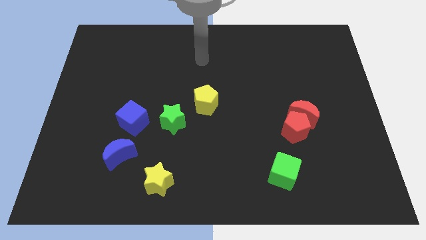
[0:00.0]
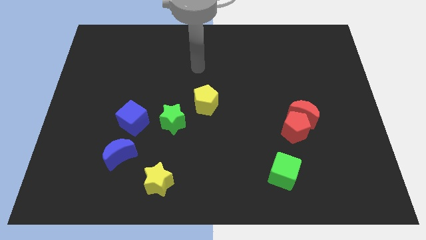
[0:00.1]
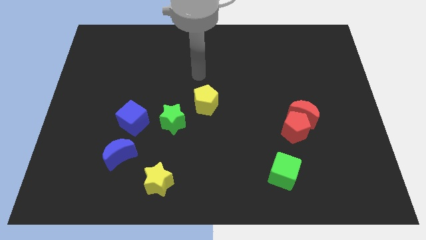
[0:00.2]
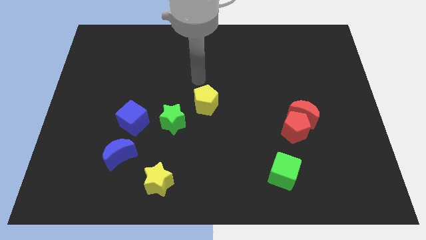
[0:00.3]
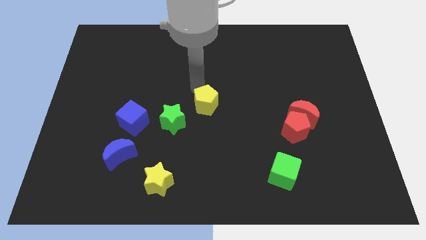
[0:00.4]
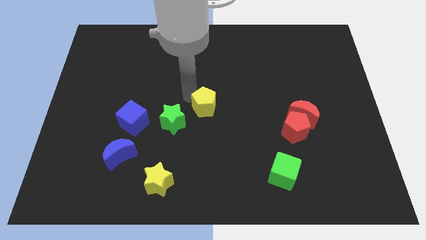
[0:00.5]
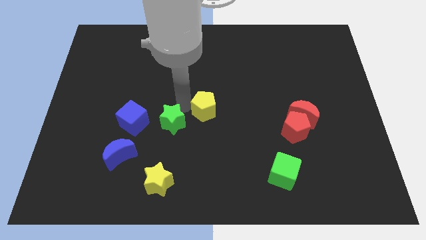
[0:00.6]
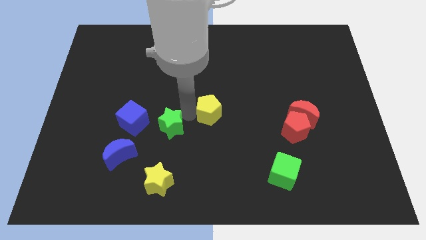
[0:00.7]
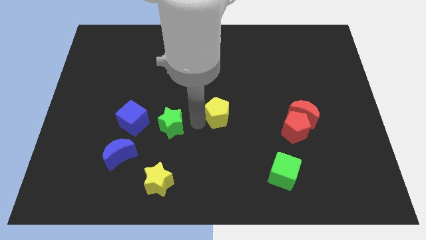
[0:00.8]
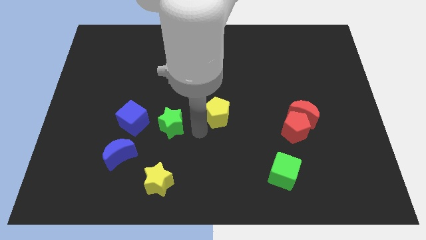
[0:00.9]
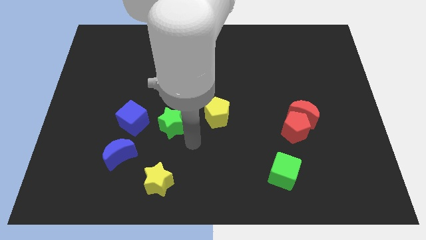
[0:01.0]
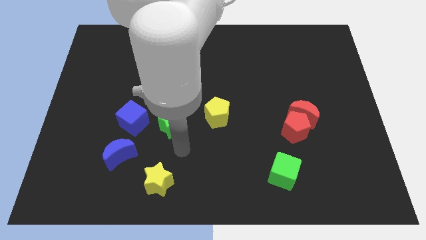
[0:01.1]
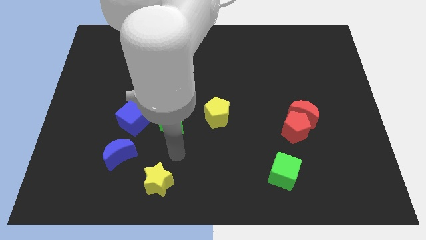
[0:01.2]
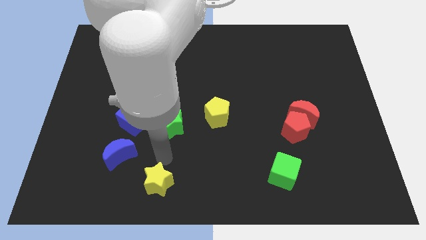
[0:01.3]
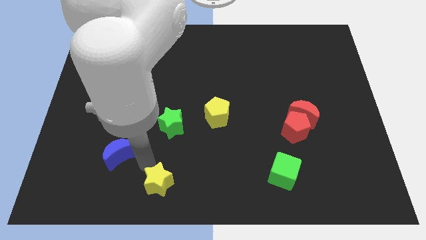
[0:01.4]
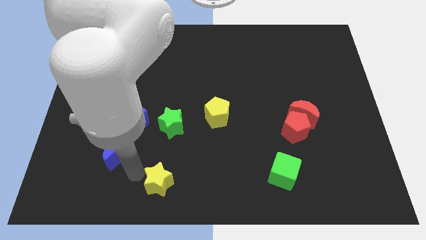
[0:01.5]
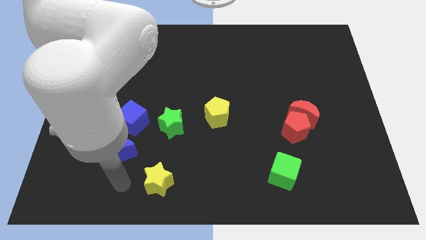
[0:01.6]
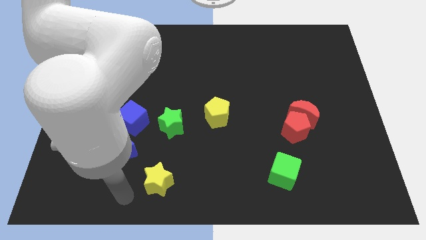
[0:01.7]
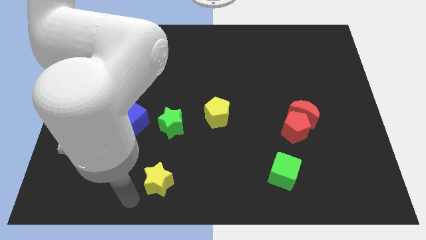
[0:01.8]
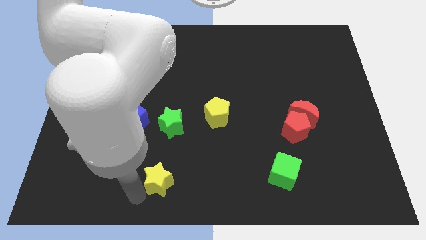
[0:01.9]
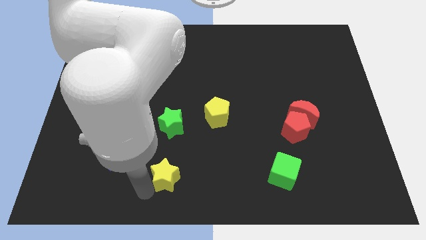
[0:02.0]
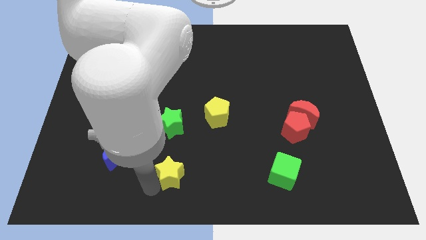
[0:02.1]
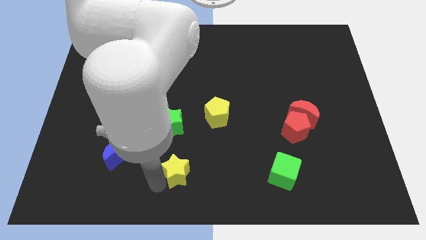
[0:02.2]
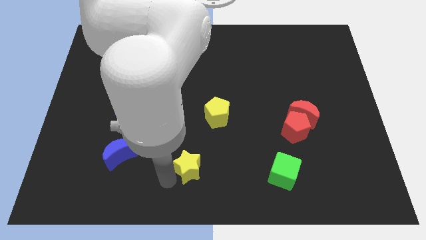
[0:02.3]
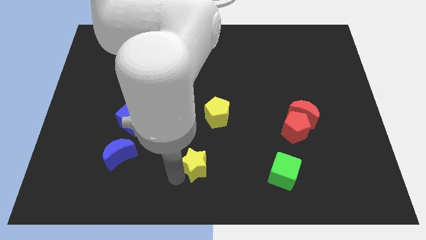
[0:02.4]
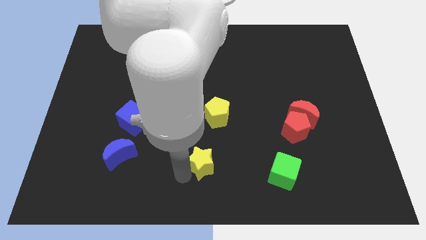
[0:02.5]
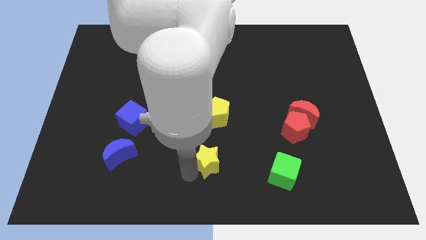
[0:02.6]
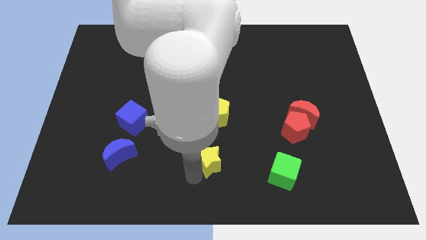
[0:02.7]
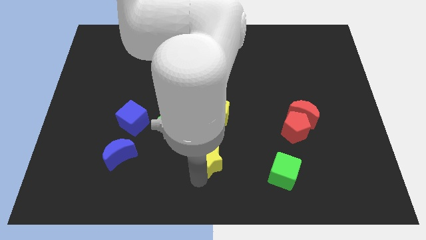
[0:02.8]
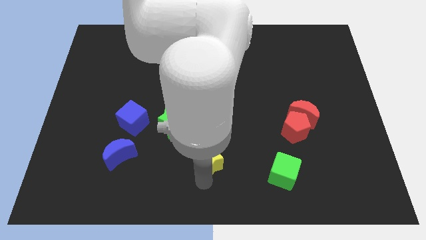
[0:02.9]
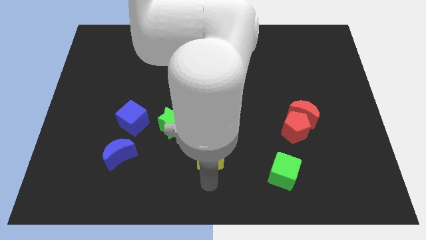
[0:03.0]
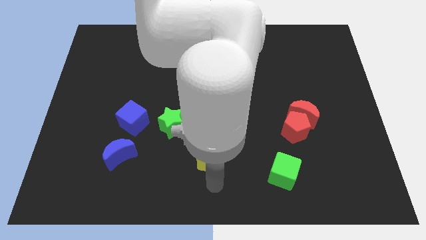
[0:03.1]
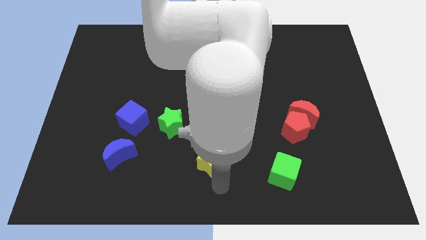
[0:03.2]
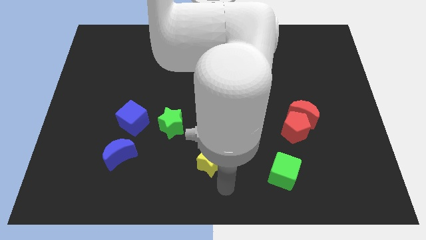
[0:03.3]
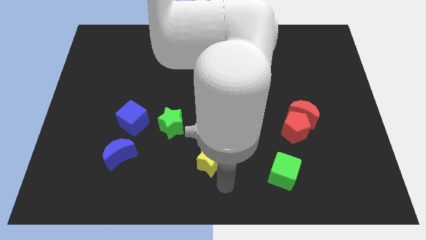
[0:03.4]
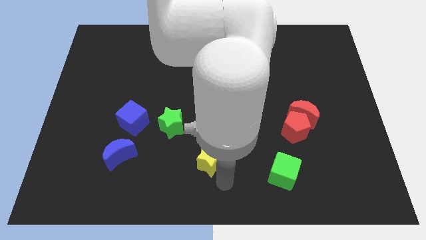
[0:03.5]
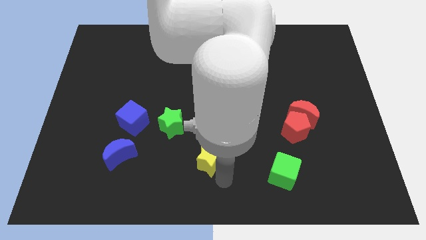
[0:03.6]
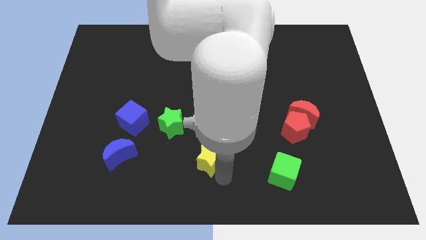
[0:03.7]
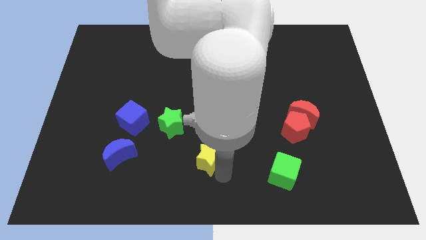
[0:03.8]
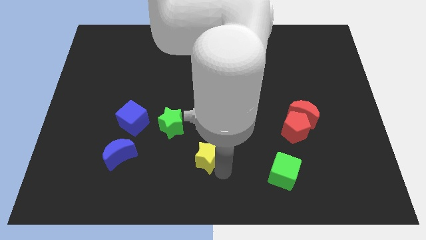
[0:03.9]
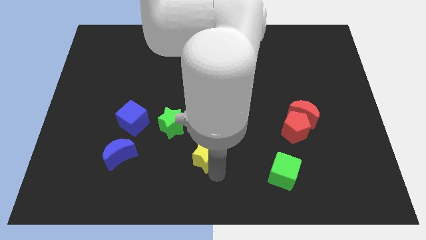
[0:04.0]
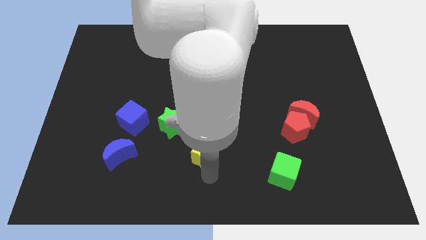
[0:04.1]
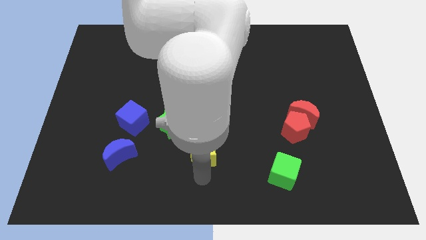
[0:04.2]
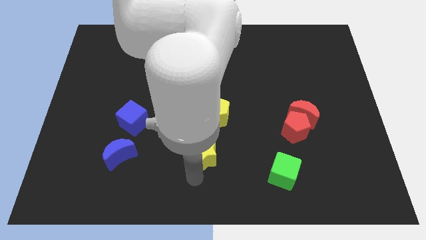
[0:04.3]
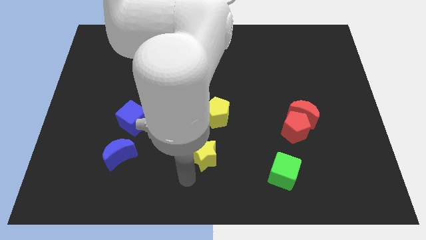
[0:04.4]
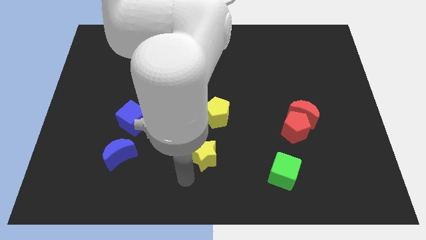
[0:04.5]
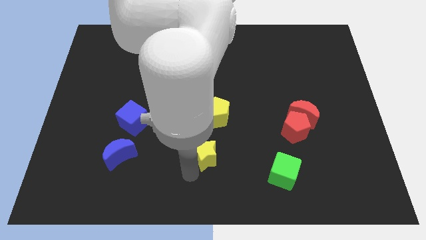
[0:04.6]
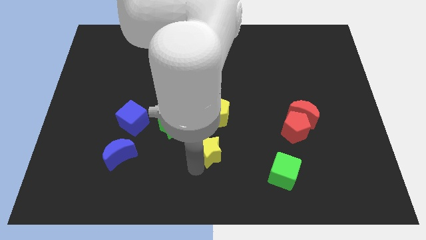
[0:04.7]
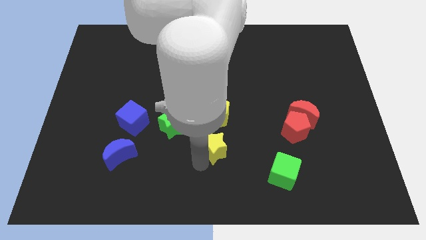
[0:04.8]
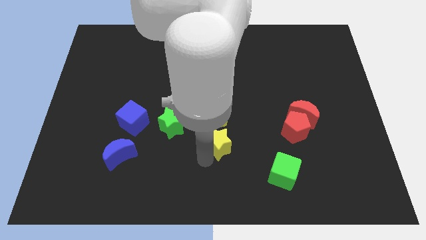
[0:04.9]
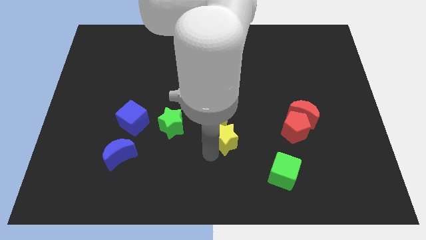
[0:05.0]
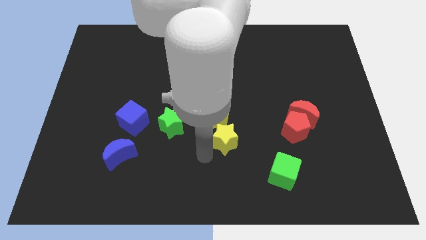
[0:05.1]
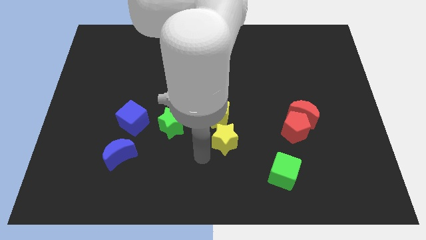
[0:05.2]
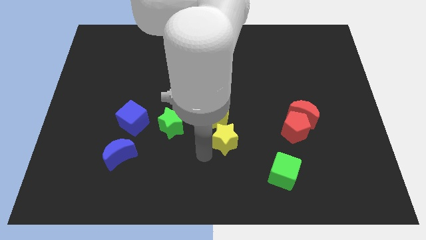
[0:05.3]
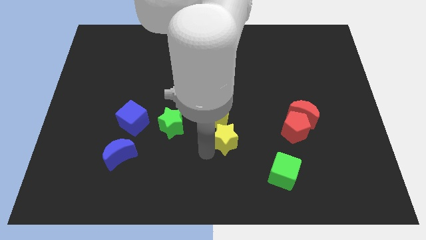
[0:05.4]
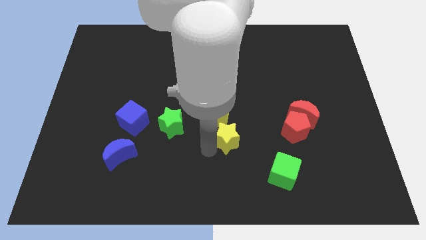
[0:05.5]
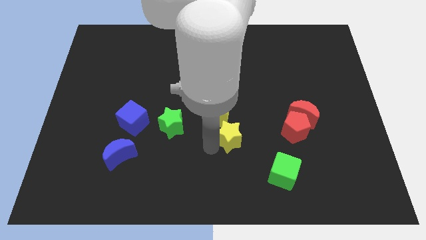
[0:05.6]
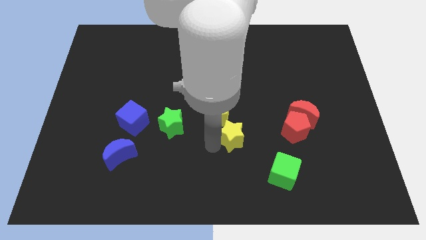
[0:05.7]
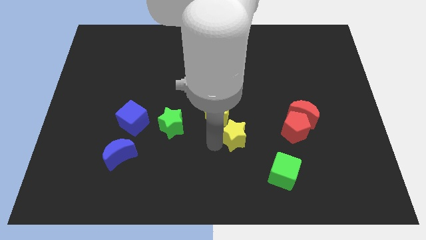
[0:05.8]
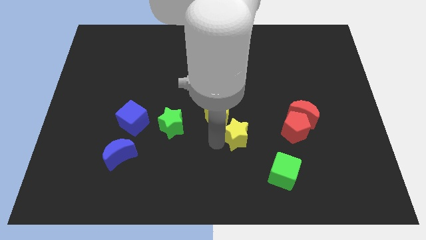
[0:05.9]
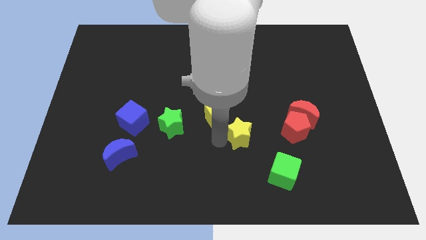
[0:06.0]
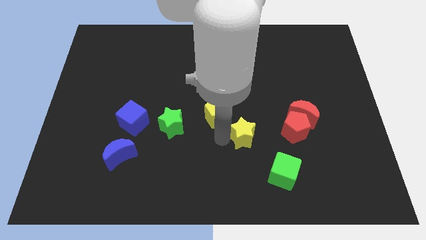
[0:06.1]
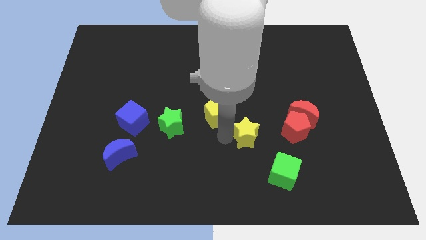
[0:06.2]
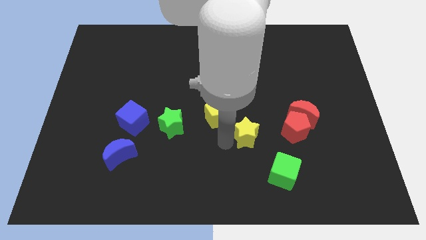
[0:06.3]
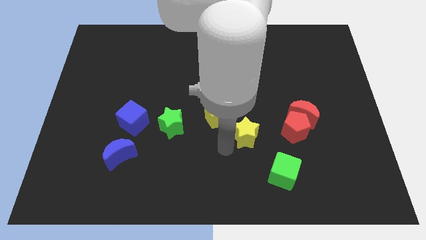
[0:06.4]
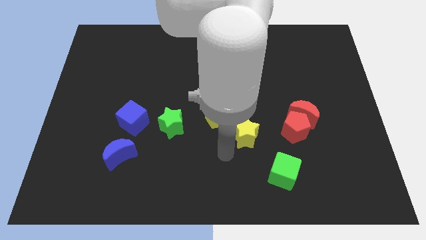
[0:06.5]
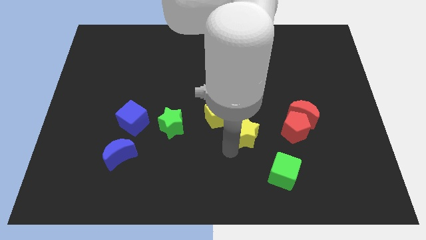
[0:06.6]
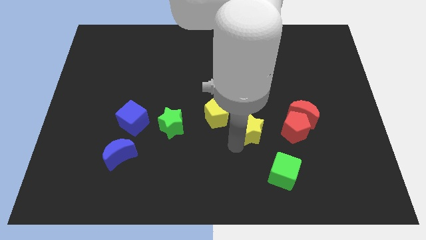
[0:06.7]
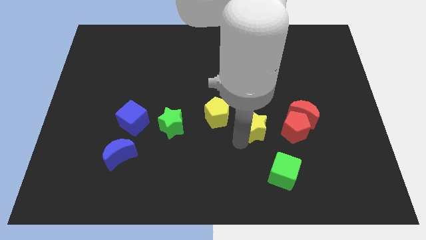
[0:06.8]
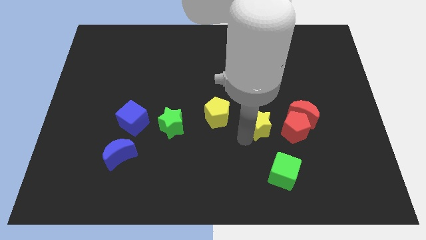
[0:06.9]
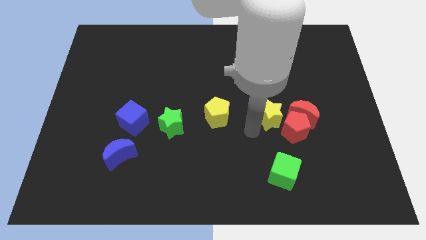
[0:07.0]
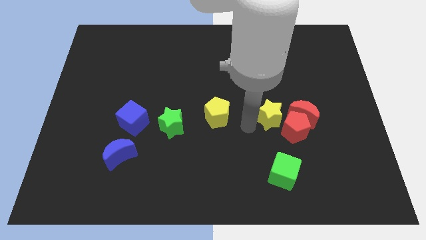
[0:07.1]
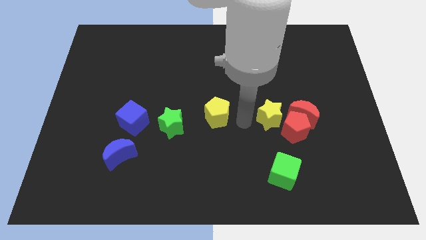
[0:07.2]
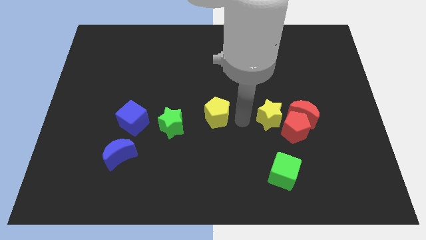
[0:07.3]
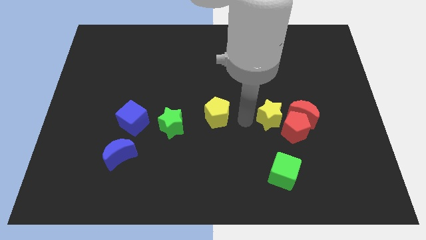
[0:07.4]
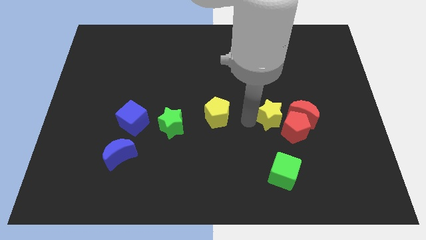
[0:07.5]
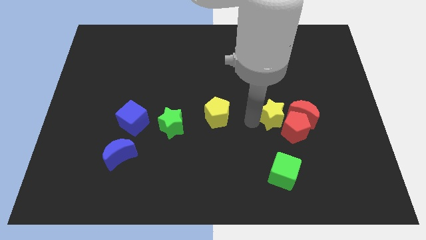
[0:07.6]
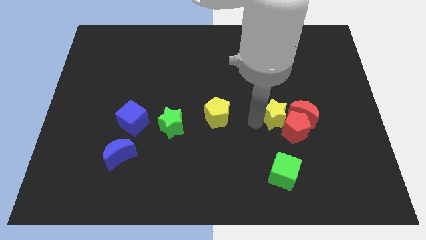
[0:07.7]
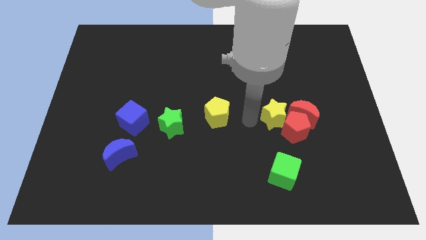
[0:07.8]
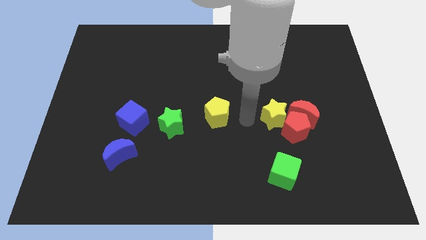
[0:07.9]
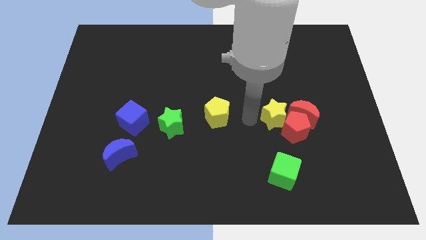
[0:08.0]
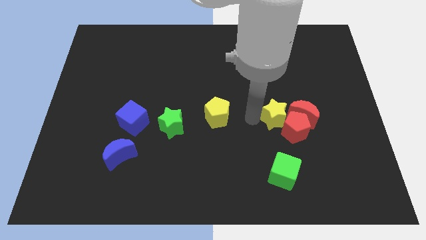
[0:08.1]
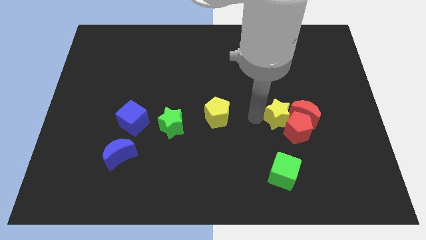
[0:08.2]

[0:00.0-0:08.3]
move the yellow star close to the red moon
